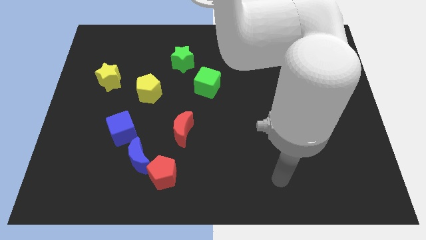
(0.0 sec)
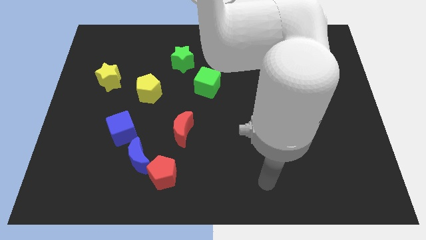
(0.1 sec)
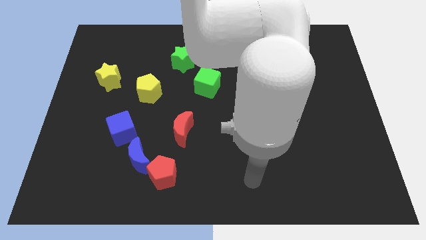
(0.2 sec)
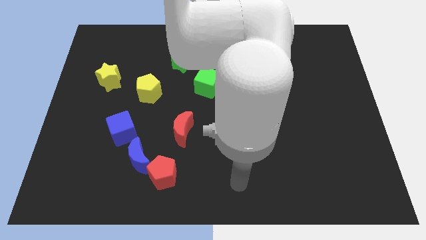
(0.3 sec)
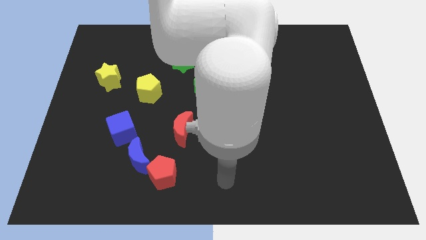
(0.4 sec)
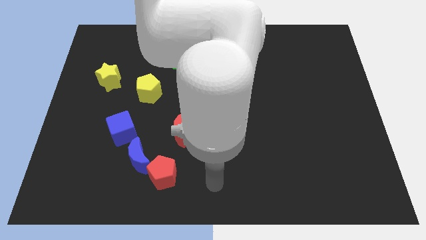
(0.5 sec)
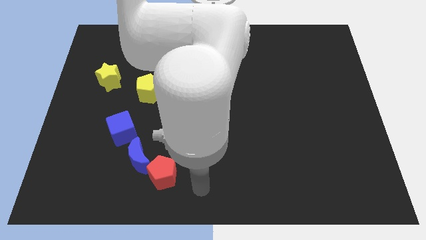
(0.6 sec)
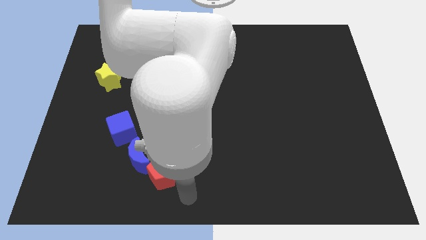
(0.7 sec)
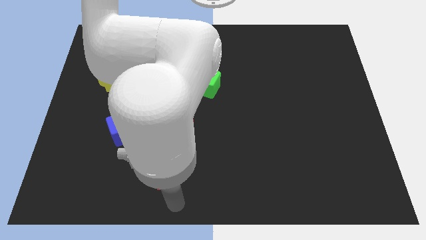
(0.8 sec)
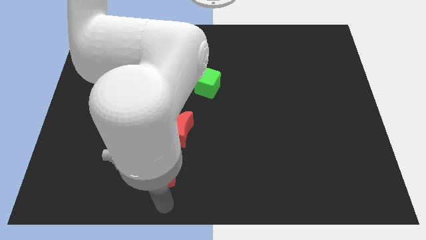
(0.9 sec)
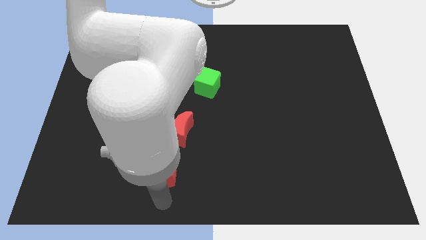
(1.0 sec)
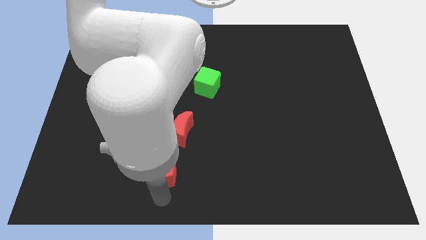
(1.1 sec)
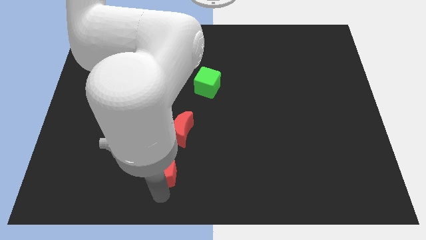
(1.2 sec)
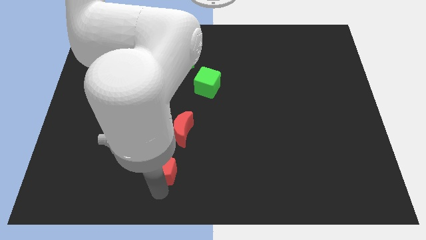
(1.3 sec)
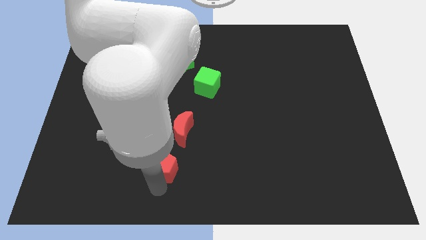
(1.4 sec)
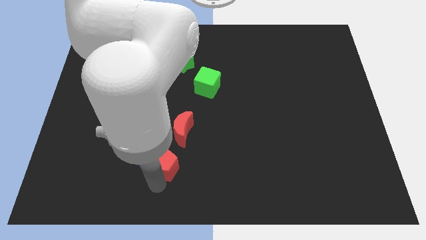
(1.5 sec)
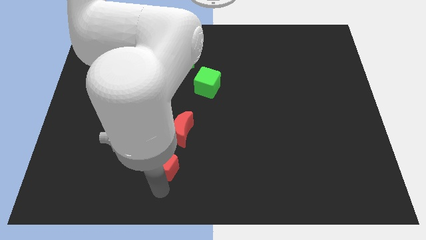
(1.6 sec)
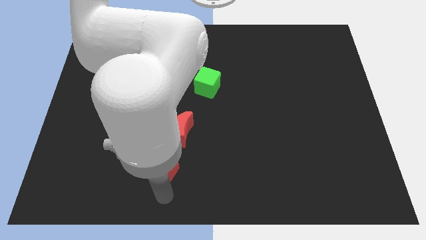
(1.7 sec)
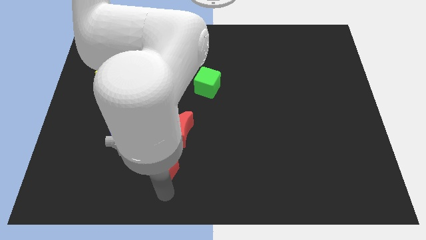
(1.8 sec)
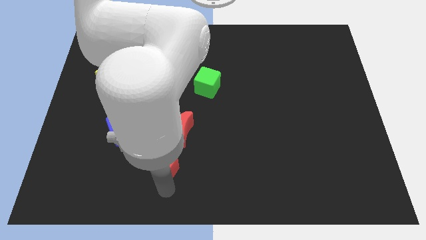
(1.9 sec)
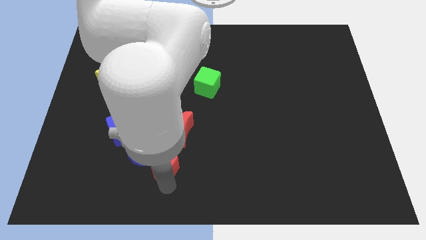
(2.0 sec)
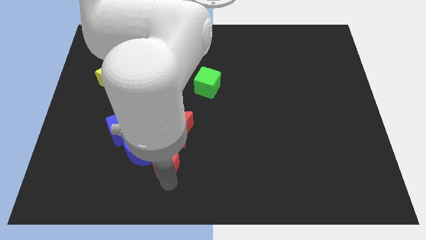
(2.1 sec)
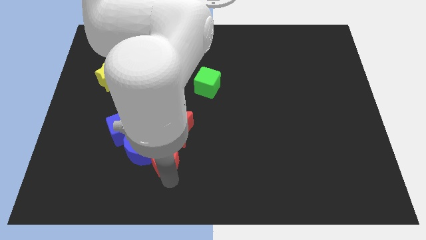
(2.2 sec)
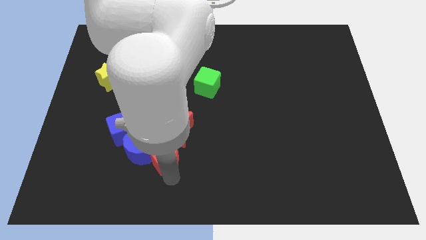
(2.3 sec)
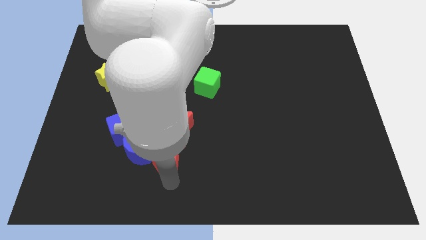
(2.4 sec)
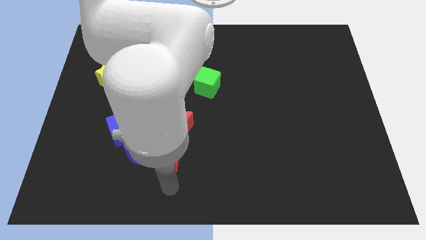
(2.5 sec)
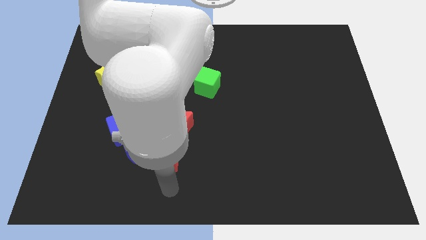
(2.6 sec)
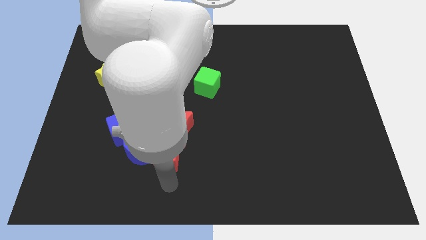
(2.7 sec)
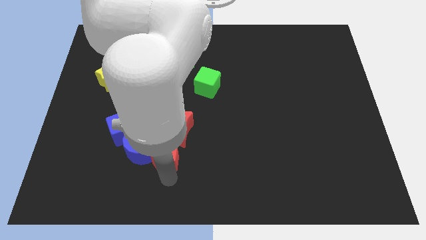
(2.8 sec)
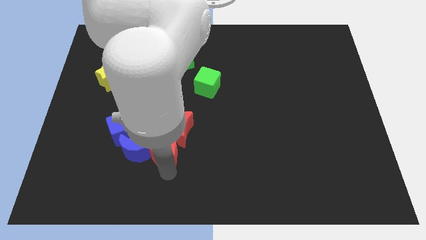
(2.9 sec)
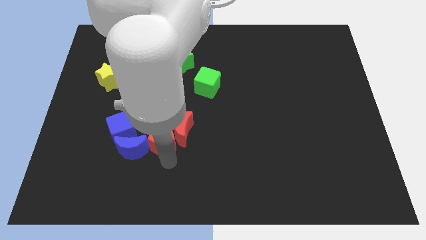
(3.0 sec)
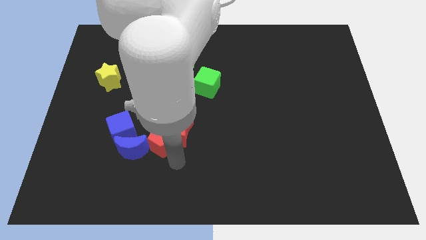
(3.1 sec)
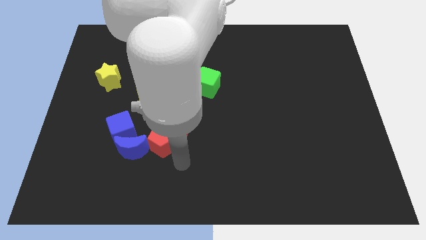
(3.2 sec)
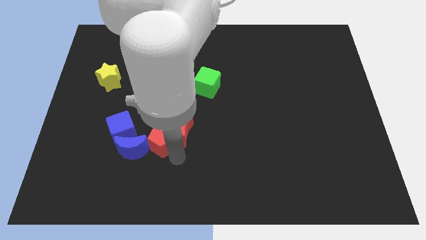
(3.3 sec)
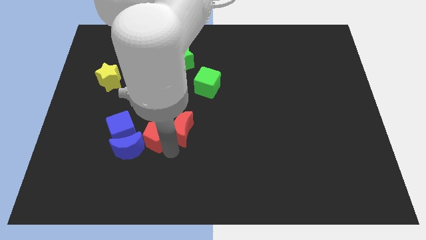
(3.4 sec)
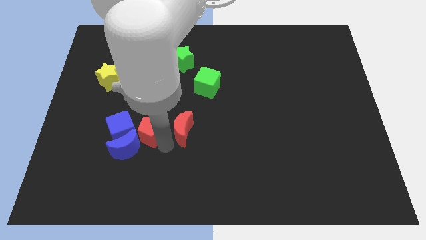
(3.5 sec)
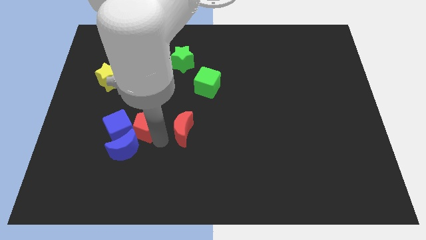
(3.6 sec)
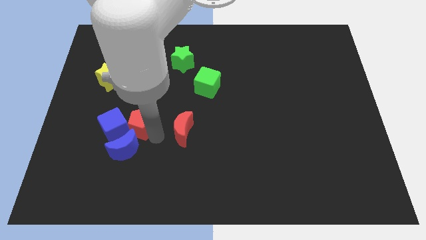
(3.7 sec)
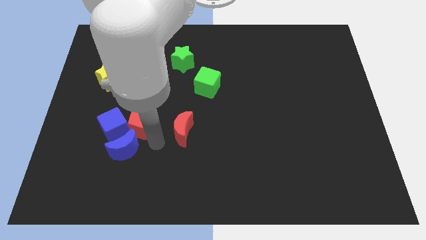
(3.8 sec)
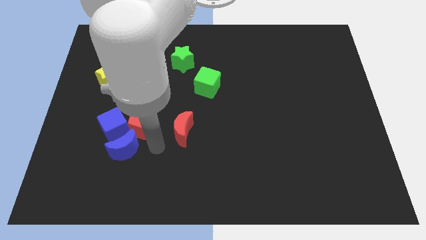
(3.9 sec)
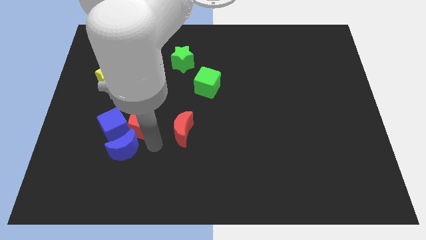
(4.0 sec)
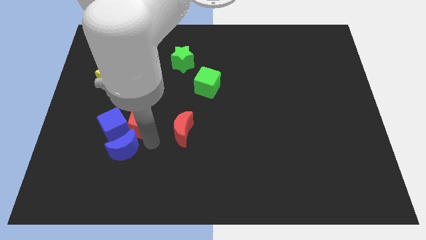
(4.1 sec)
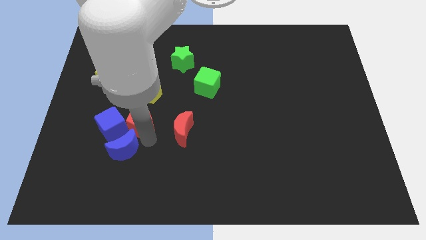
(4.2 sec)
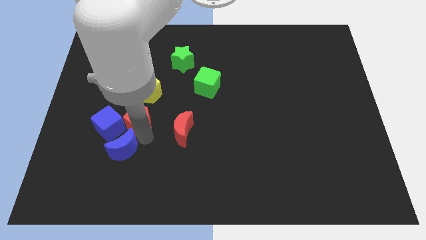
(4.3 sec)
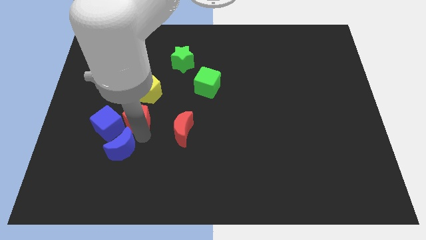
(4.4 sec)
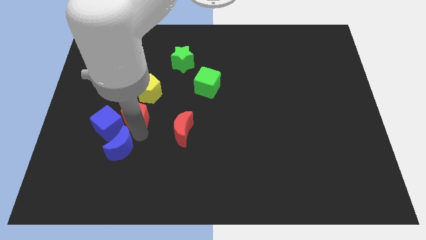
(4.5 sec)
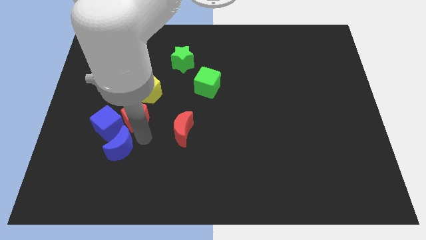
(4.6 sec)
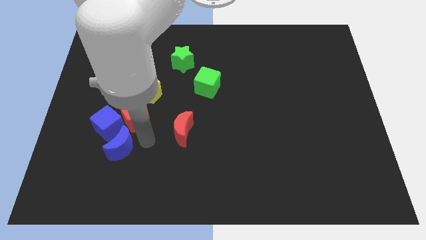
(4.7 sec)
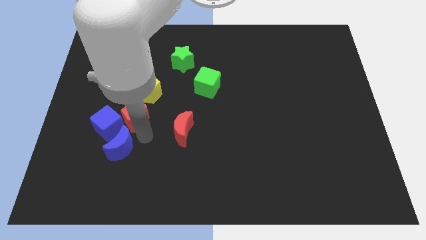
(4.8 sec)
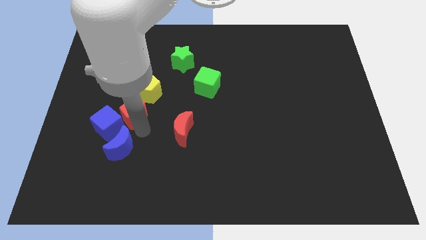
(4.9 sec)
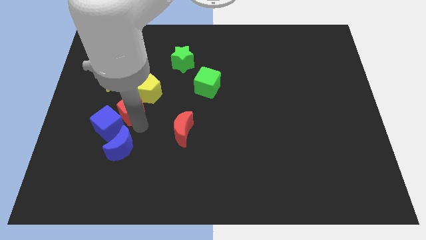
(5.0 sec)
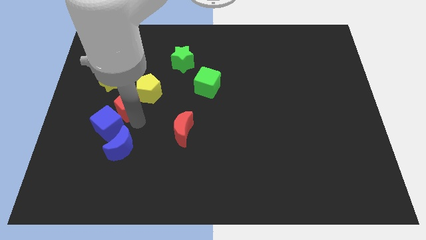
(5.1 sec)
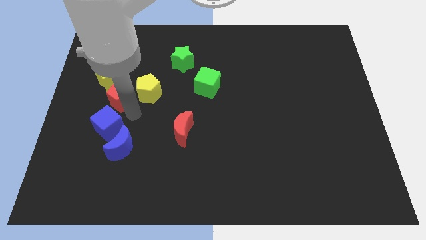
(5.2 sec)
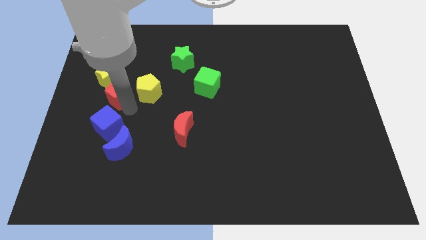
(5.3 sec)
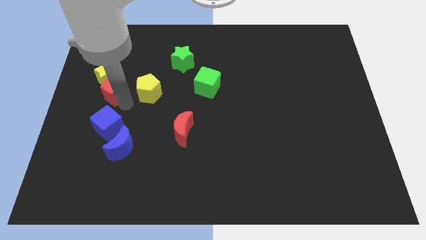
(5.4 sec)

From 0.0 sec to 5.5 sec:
move the red pentagon close to the yellow star

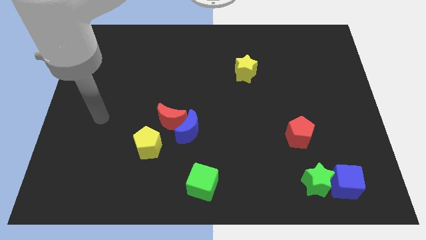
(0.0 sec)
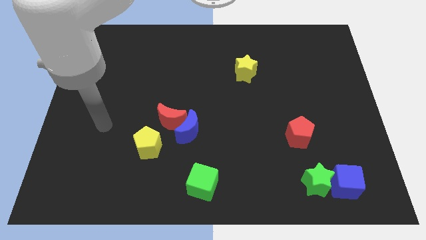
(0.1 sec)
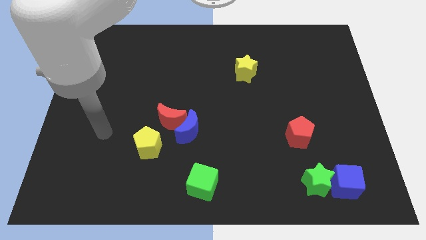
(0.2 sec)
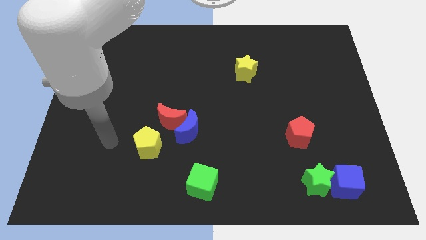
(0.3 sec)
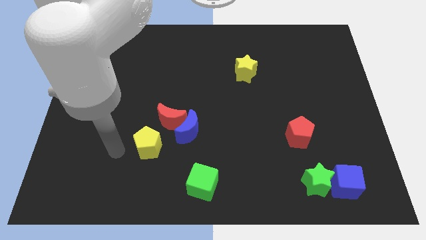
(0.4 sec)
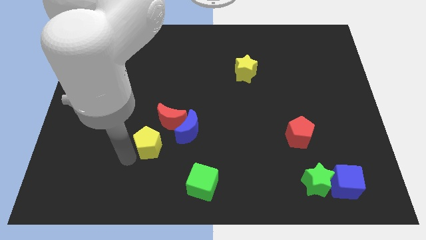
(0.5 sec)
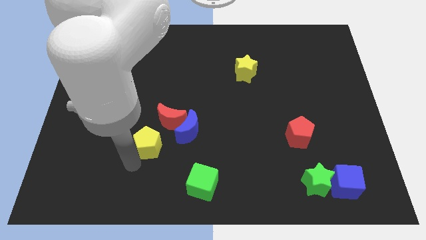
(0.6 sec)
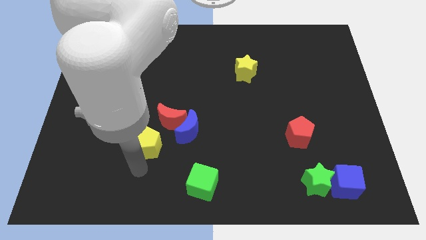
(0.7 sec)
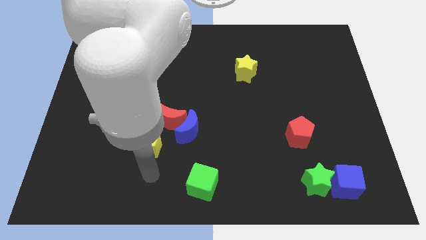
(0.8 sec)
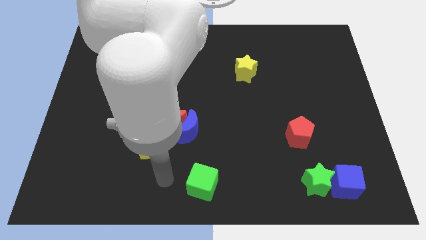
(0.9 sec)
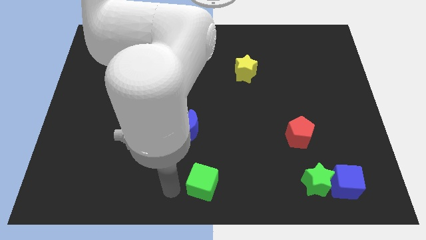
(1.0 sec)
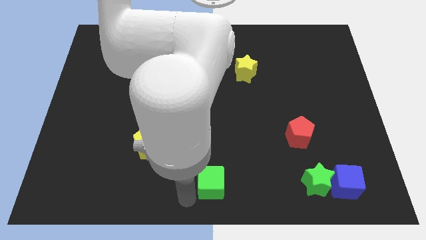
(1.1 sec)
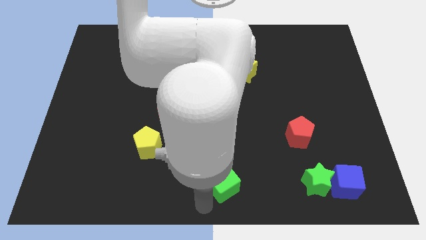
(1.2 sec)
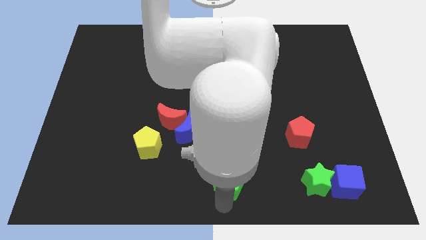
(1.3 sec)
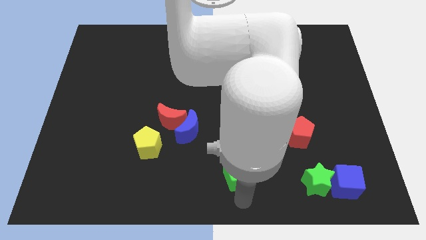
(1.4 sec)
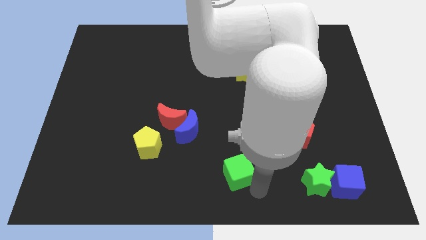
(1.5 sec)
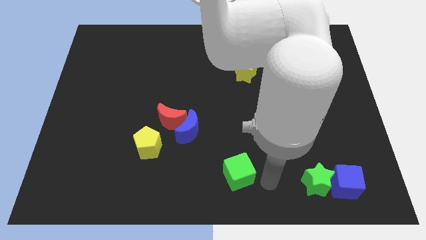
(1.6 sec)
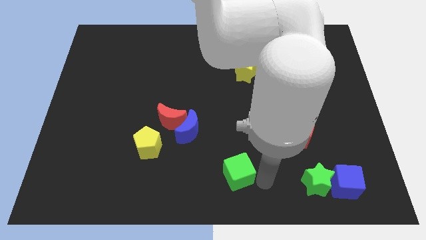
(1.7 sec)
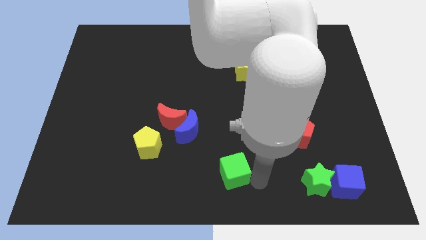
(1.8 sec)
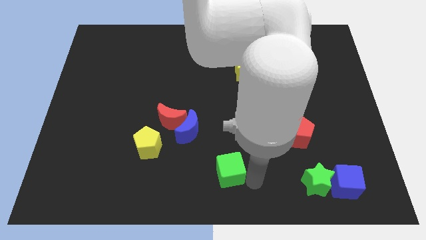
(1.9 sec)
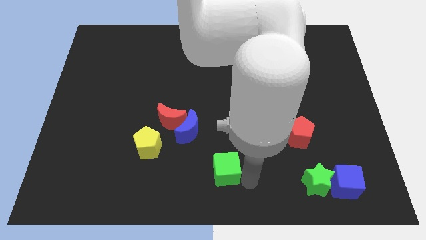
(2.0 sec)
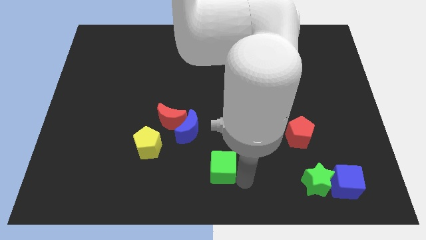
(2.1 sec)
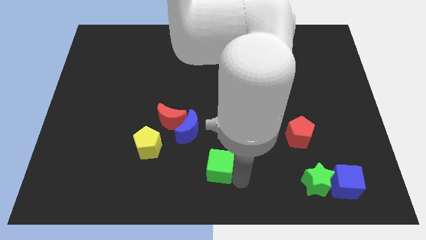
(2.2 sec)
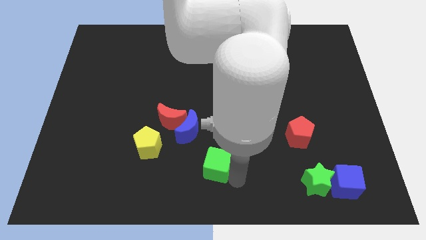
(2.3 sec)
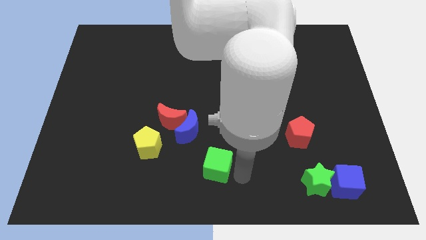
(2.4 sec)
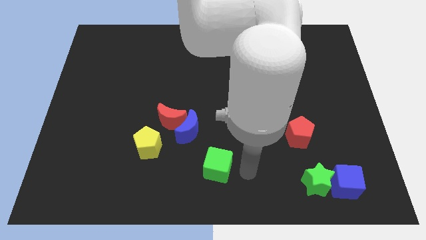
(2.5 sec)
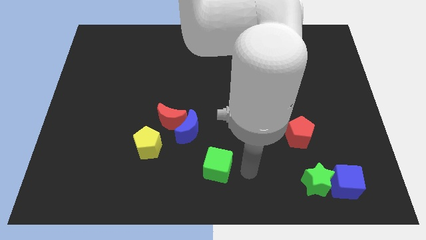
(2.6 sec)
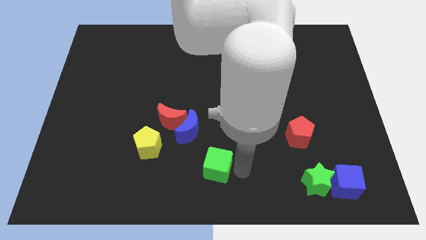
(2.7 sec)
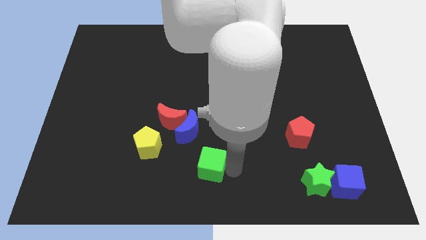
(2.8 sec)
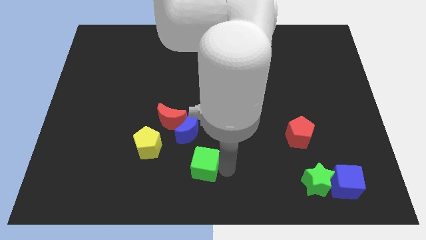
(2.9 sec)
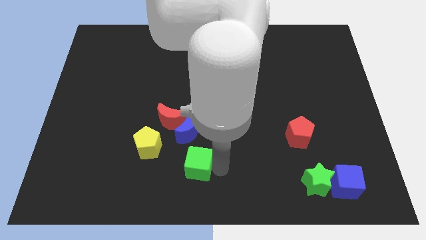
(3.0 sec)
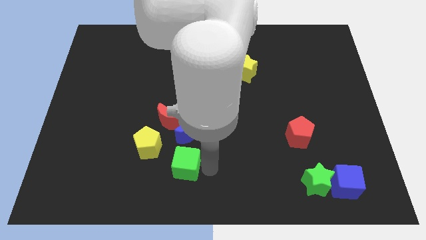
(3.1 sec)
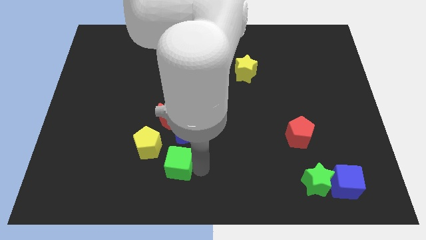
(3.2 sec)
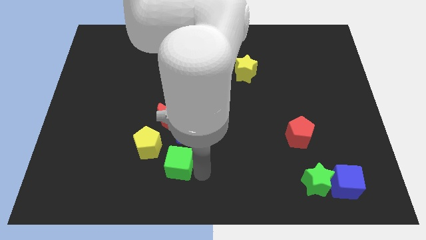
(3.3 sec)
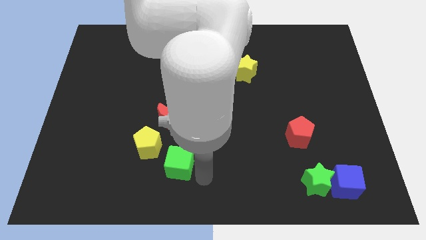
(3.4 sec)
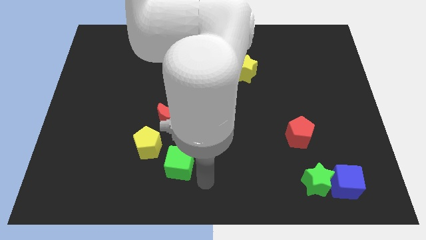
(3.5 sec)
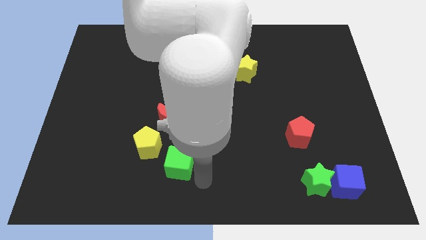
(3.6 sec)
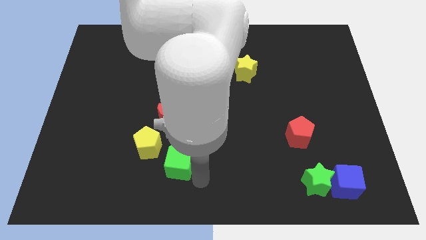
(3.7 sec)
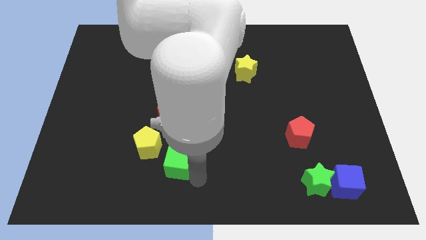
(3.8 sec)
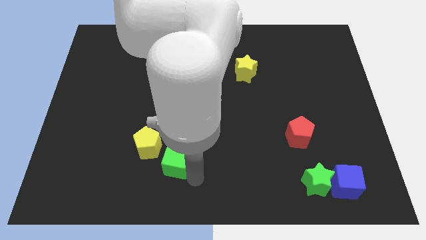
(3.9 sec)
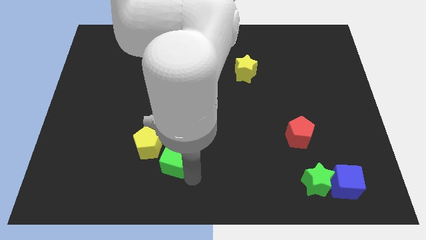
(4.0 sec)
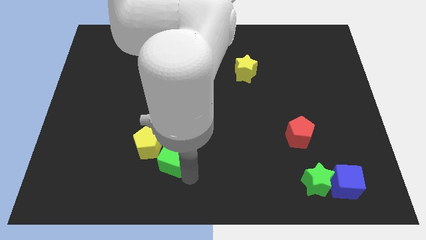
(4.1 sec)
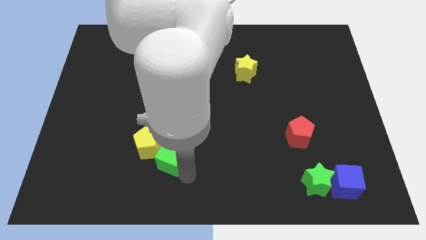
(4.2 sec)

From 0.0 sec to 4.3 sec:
push the green cube close to the yellow pentagon
